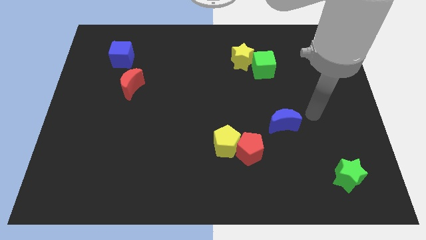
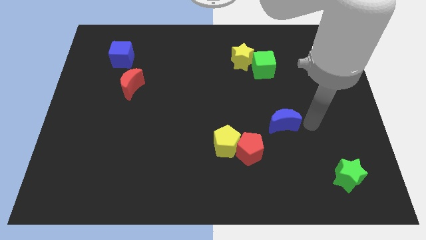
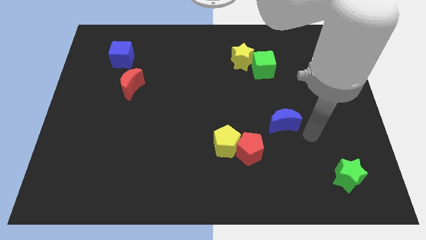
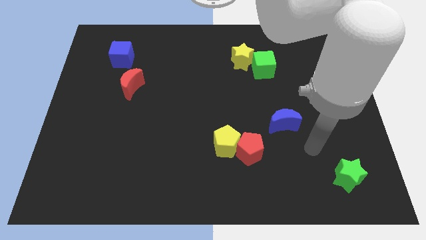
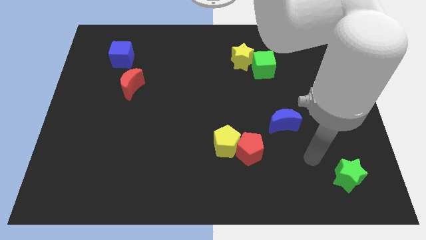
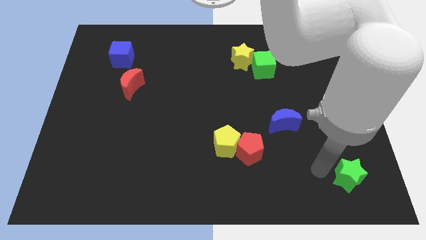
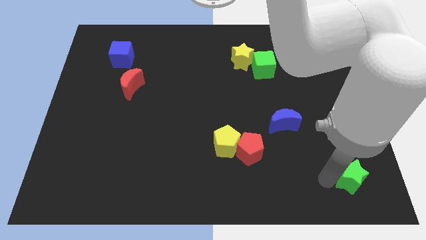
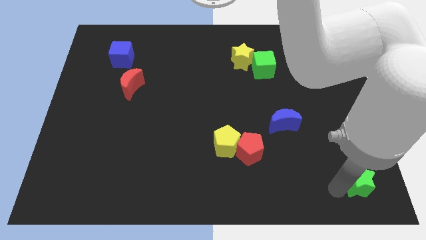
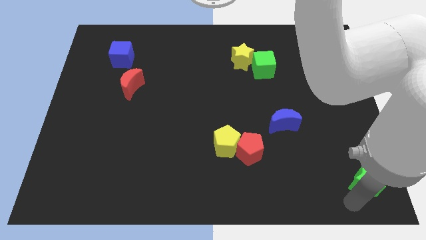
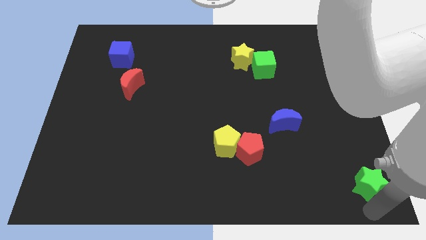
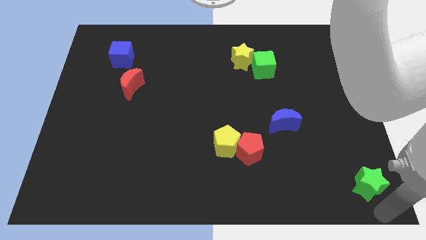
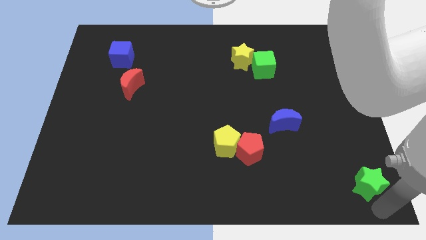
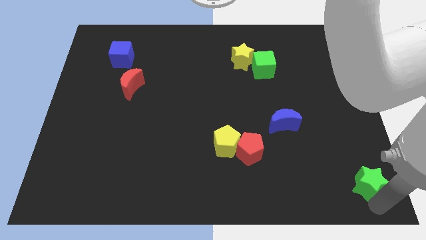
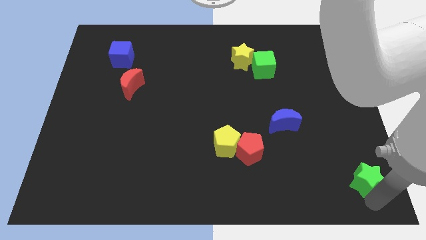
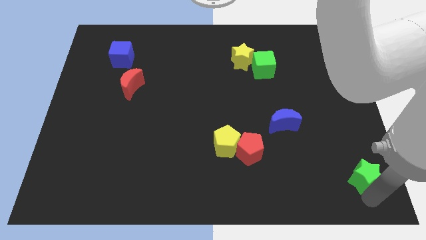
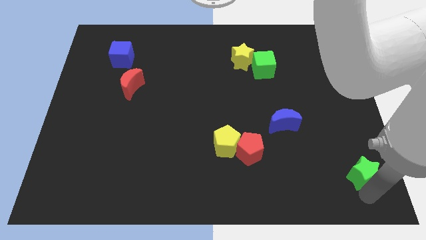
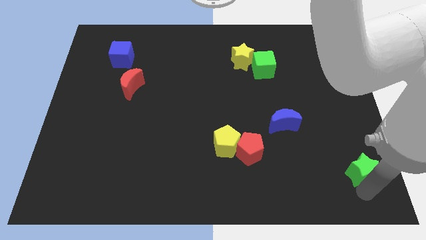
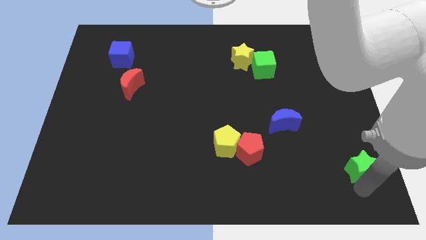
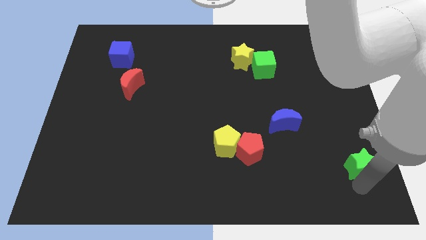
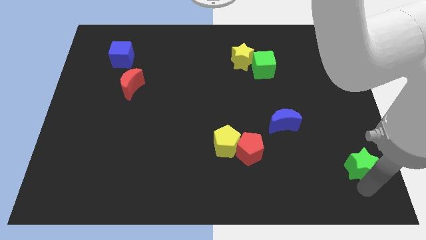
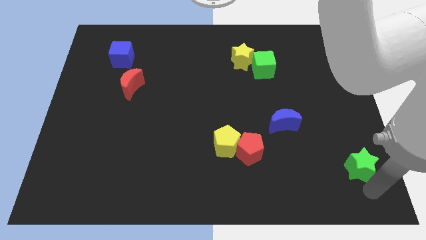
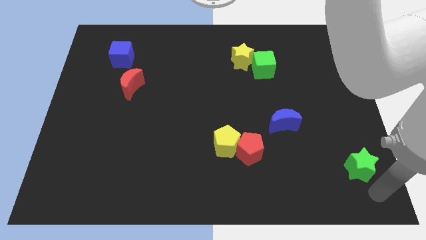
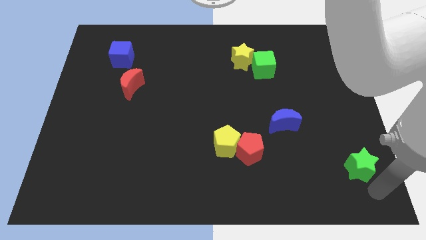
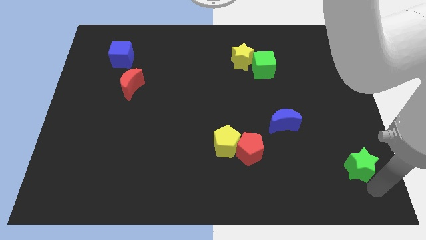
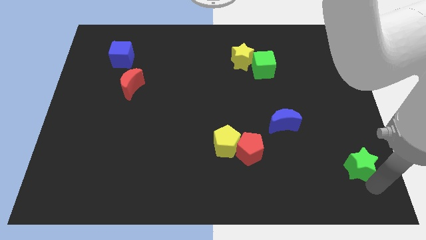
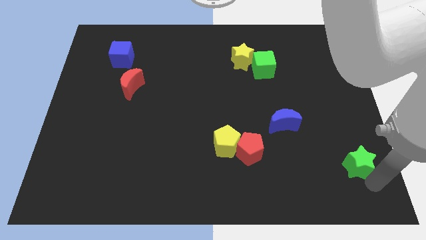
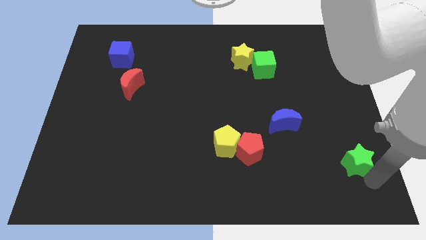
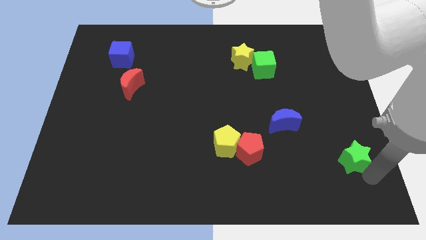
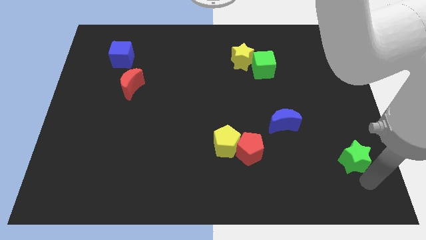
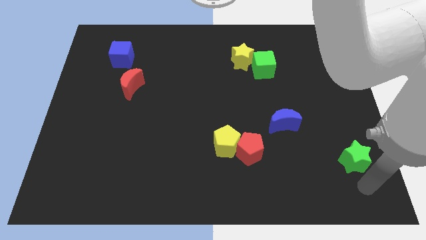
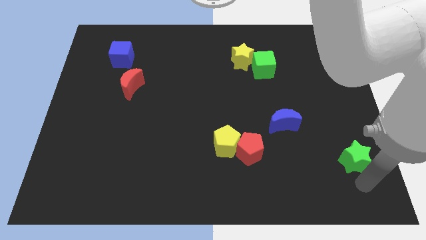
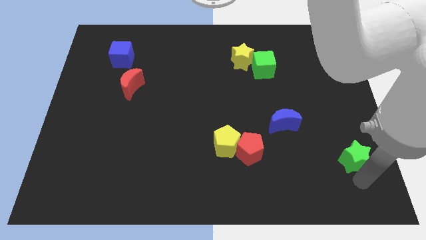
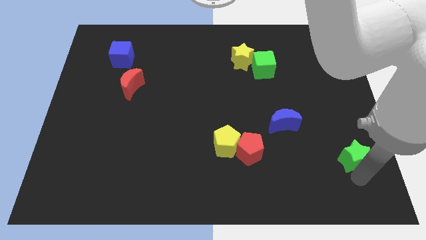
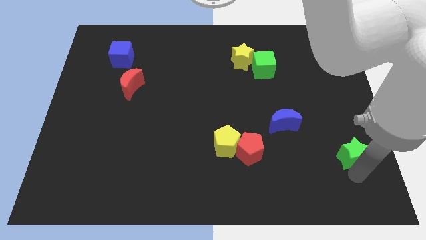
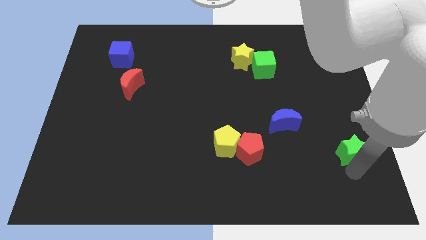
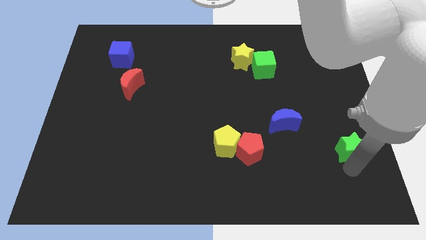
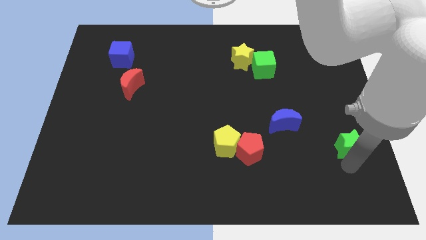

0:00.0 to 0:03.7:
slightly move the green star up

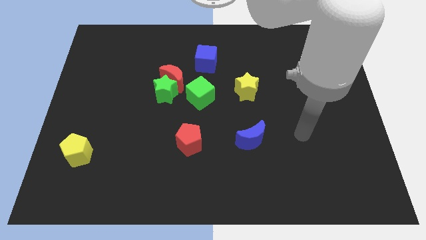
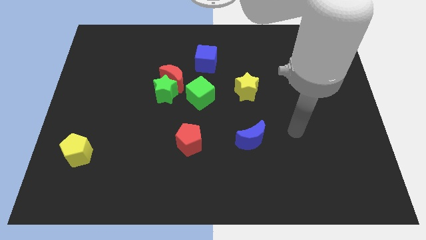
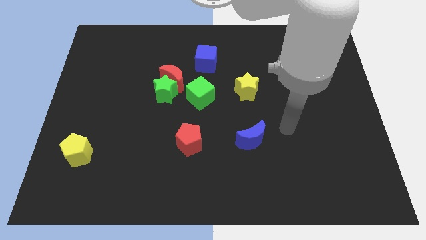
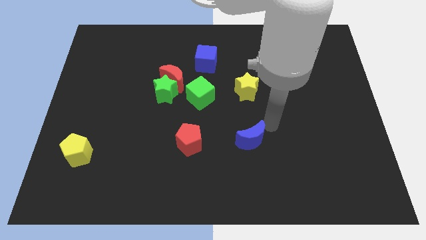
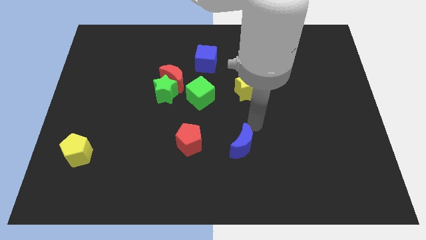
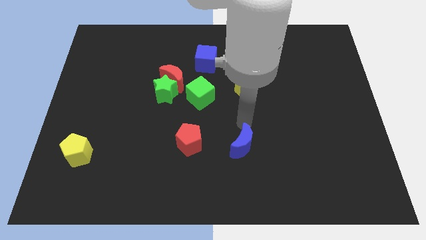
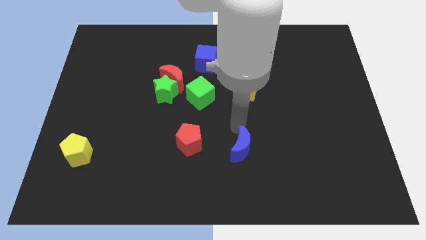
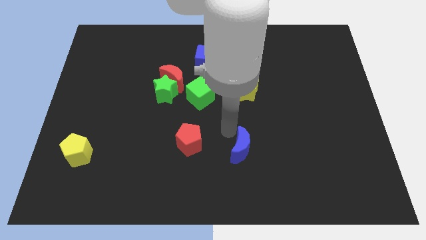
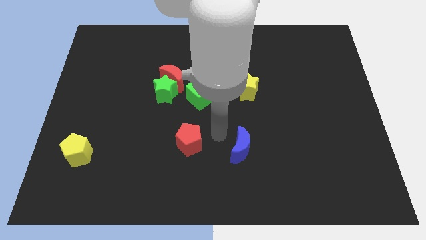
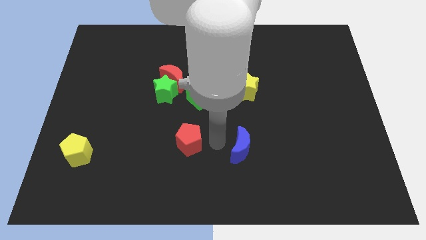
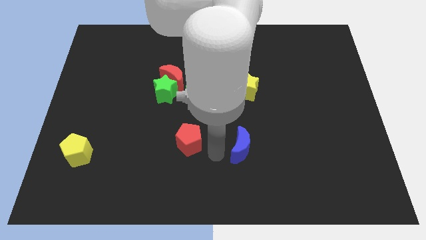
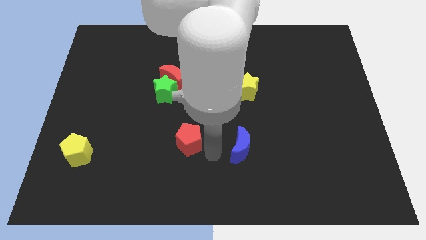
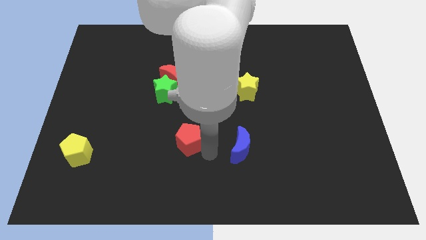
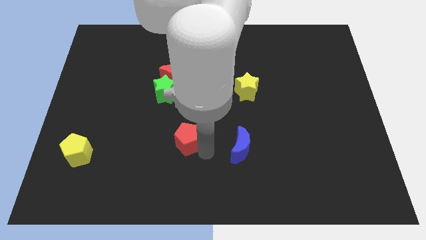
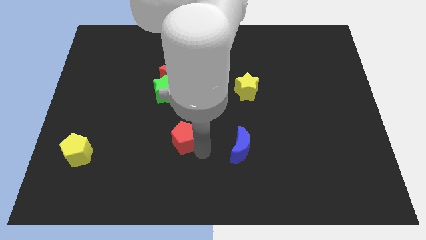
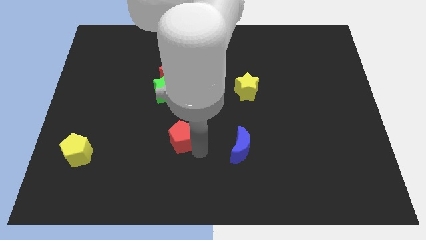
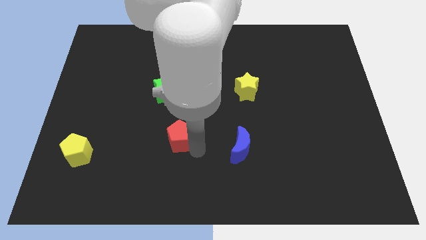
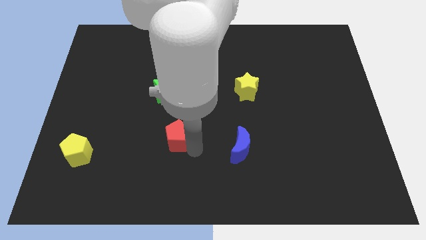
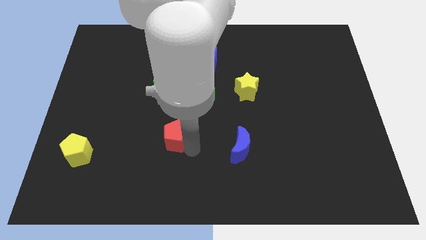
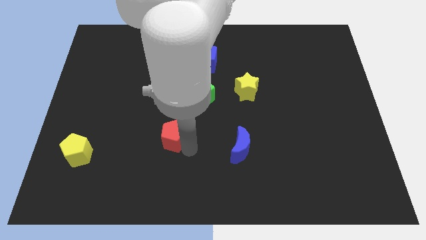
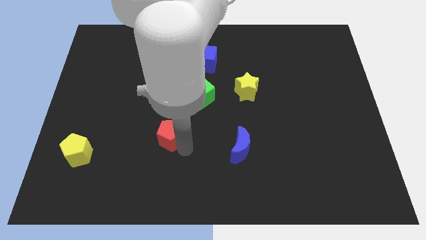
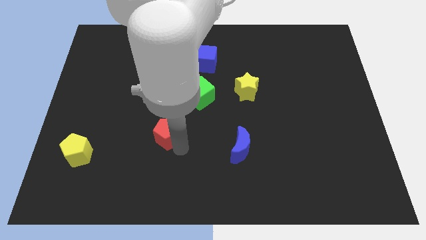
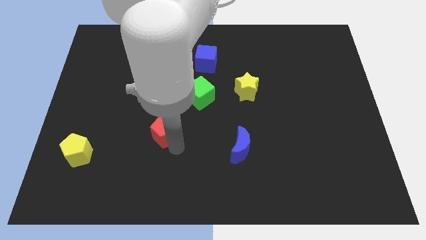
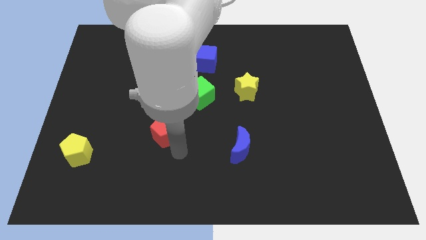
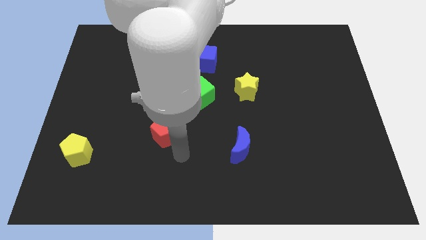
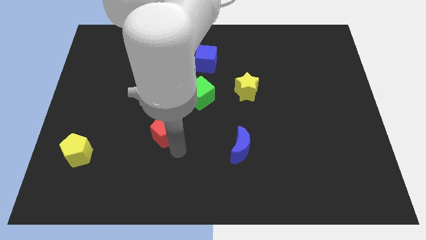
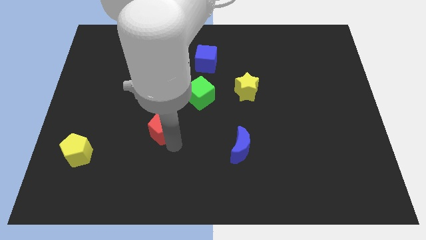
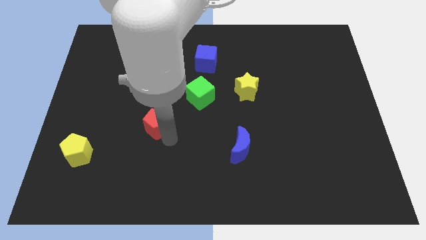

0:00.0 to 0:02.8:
move the red pentagon slightly up and left

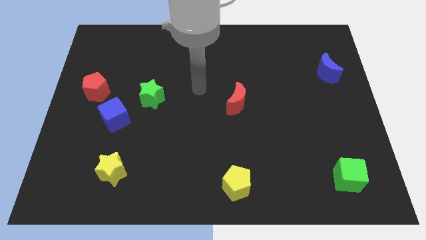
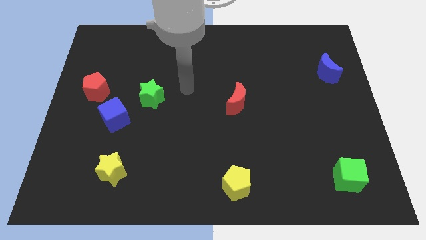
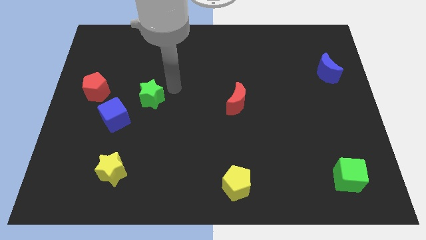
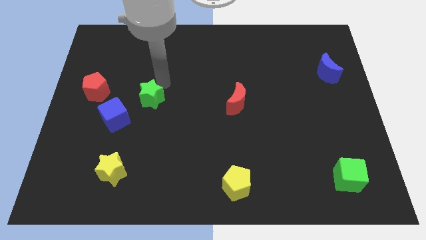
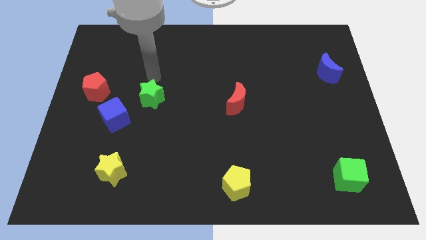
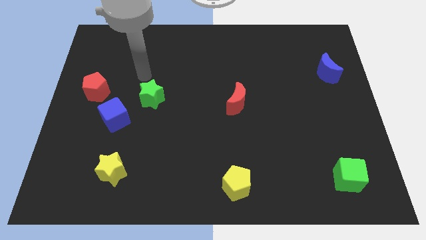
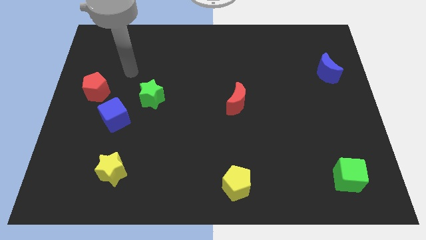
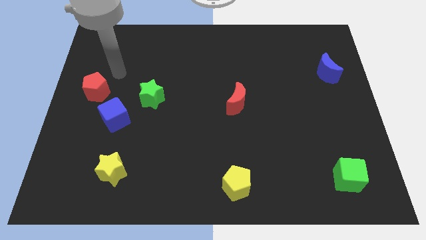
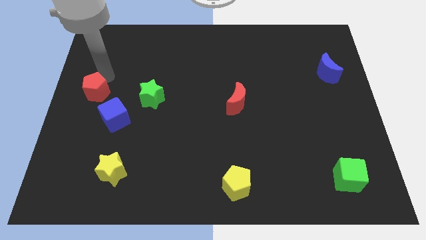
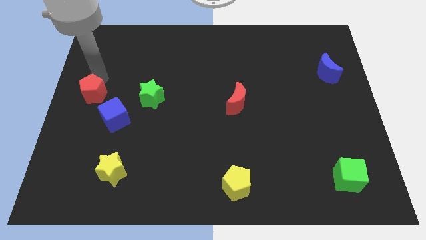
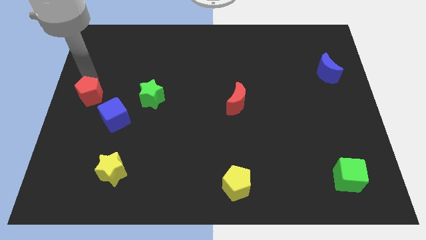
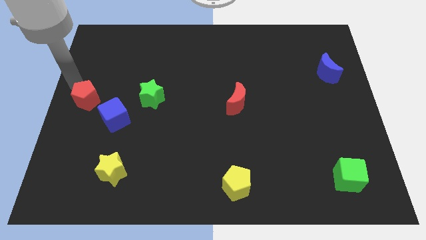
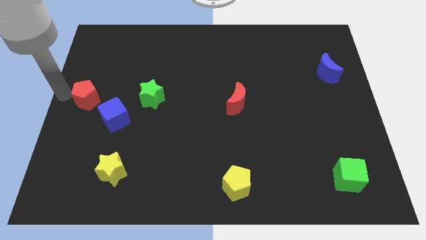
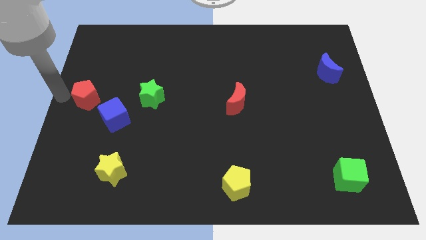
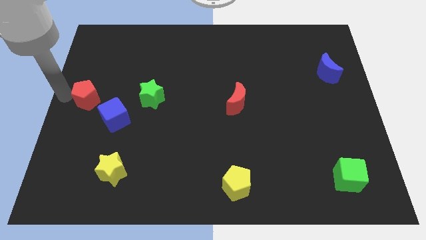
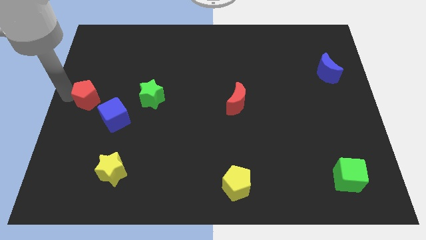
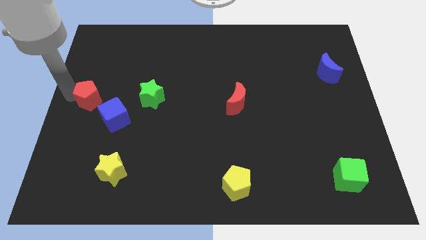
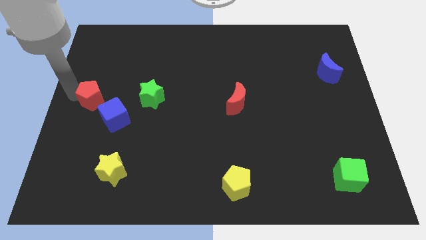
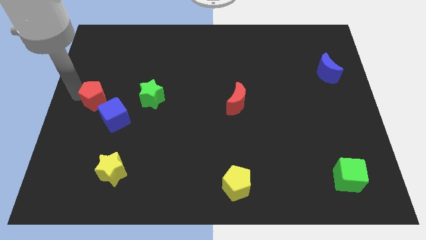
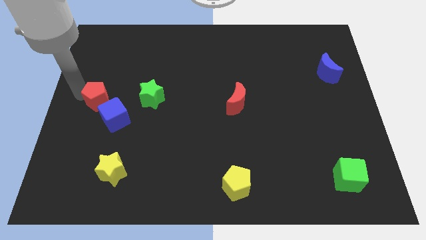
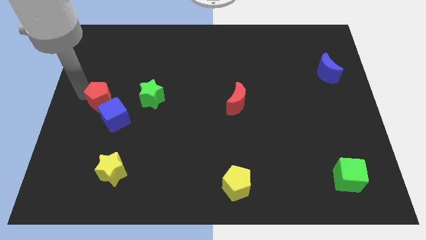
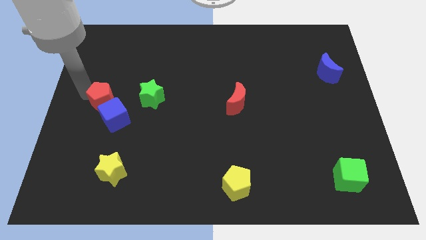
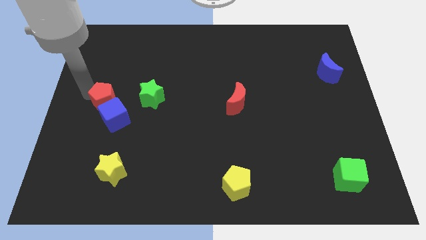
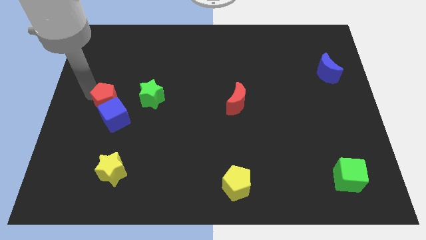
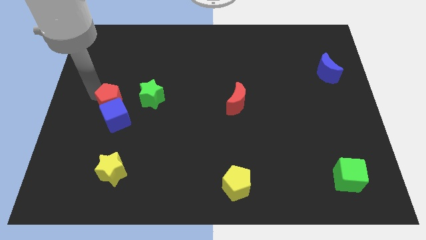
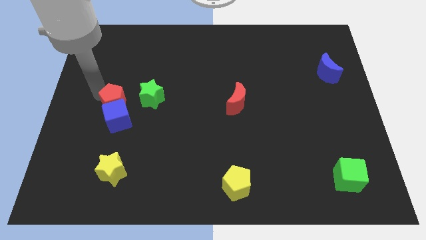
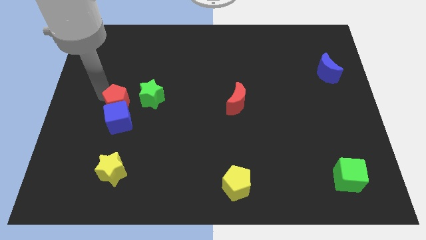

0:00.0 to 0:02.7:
slide the red pentagon down and to the right slightly
